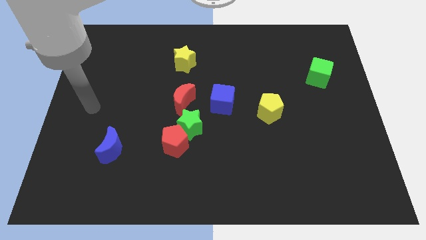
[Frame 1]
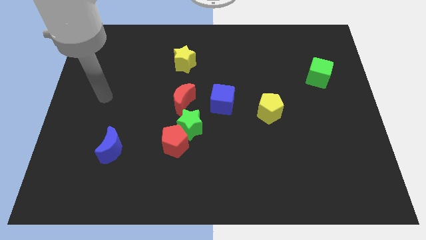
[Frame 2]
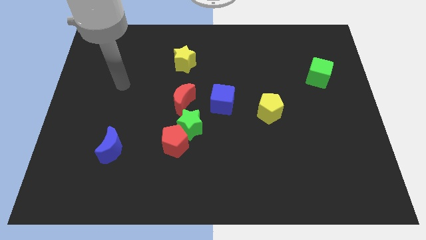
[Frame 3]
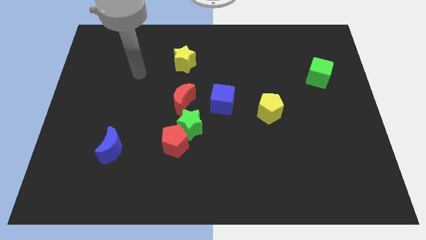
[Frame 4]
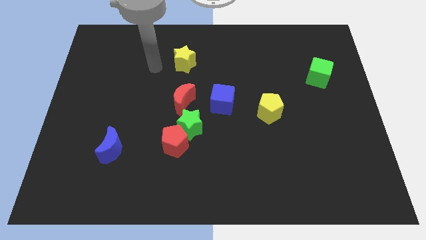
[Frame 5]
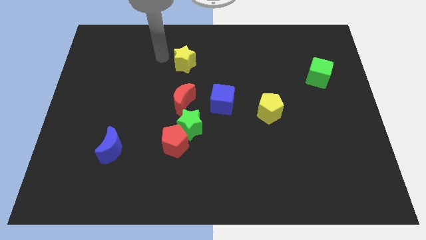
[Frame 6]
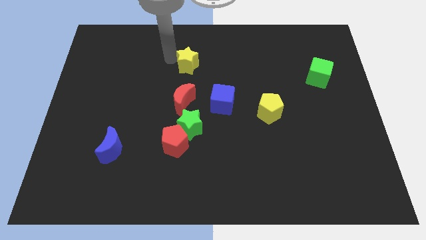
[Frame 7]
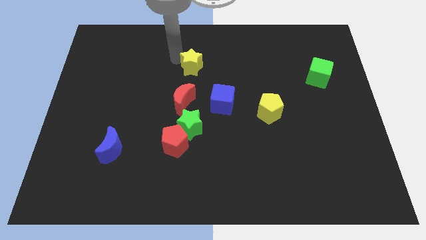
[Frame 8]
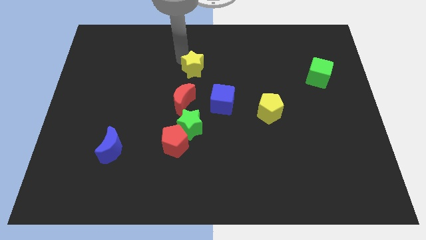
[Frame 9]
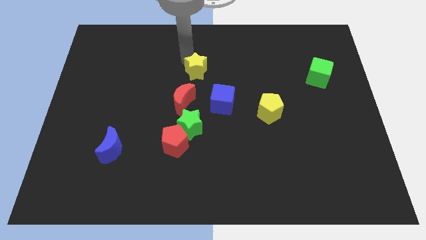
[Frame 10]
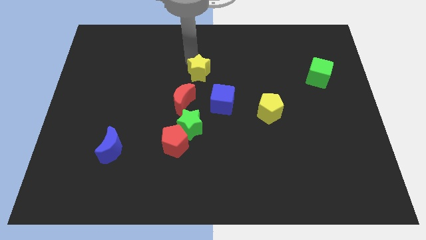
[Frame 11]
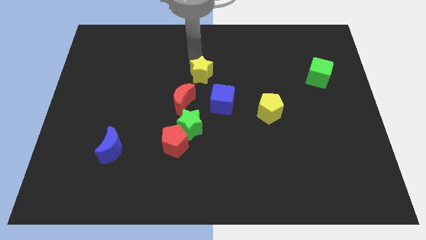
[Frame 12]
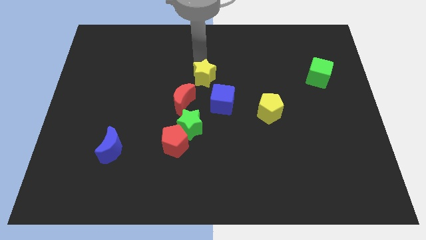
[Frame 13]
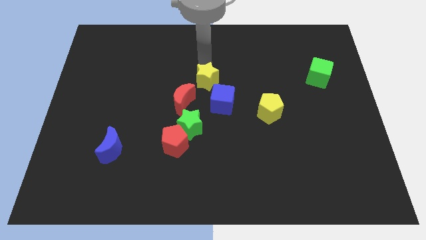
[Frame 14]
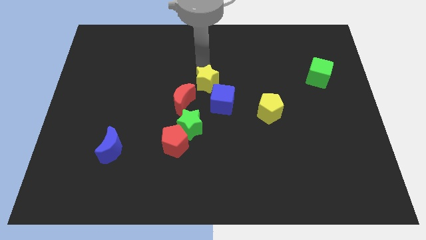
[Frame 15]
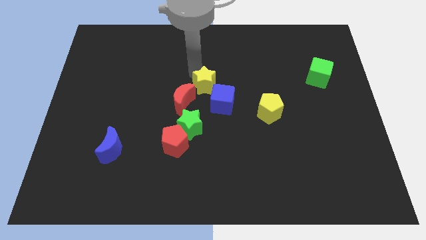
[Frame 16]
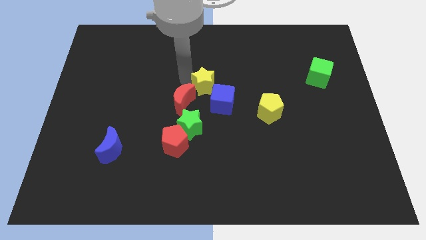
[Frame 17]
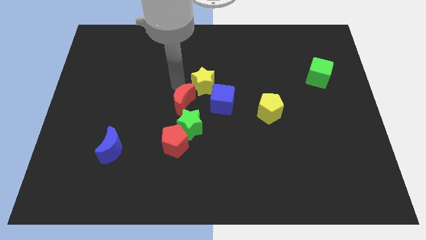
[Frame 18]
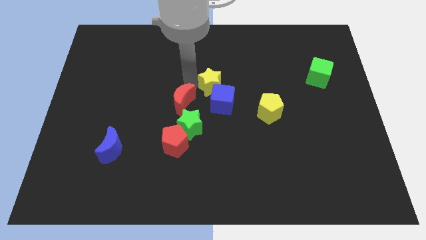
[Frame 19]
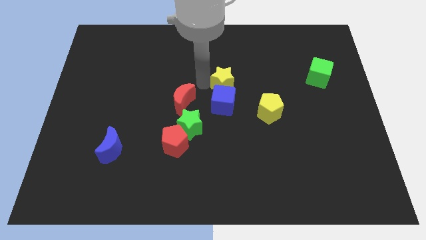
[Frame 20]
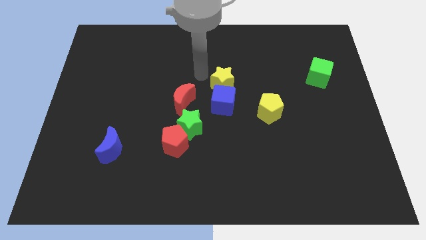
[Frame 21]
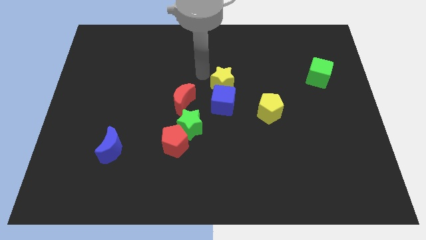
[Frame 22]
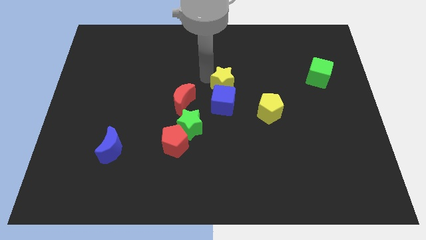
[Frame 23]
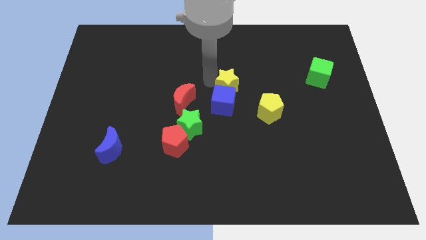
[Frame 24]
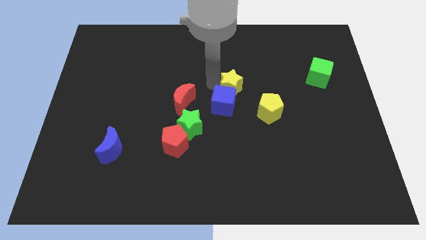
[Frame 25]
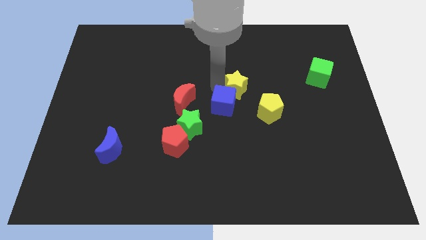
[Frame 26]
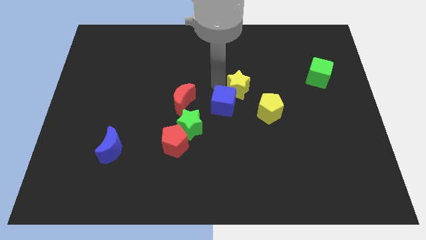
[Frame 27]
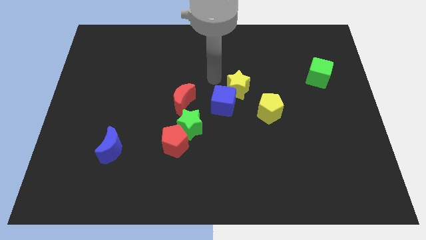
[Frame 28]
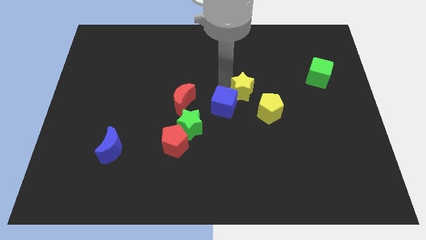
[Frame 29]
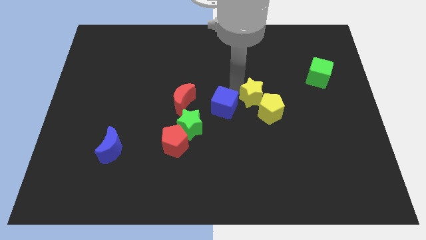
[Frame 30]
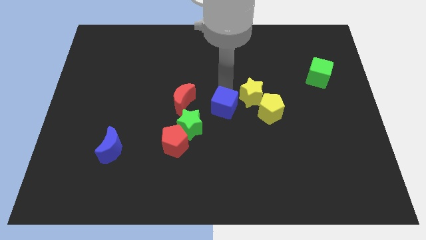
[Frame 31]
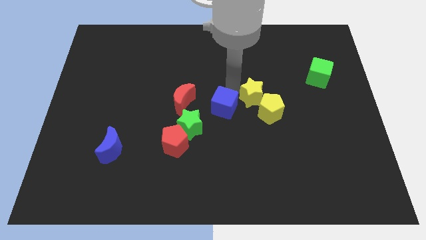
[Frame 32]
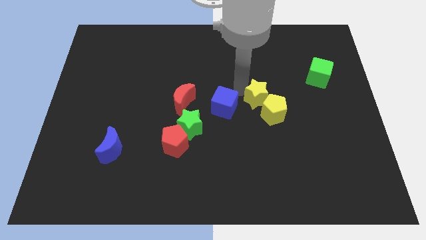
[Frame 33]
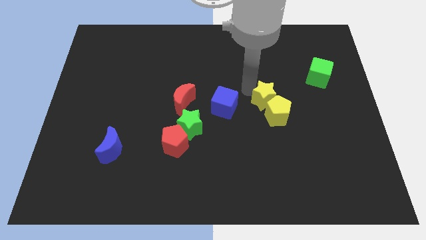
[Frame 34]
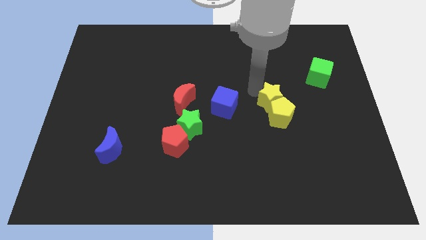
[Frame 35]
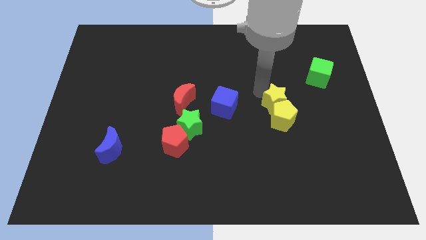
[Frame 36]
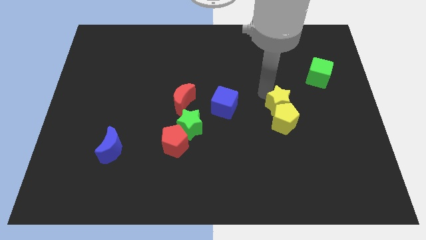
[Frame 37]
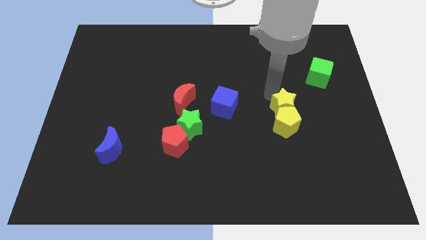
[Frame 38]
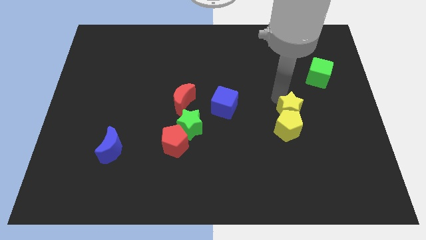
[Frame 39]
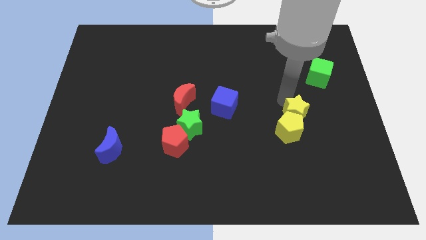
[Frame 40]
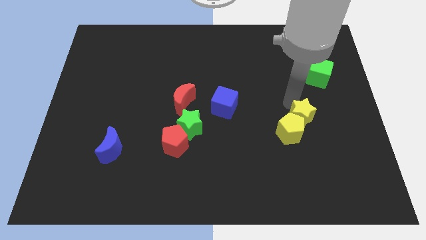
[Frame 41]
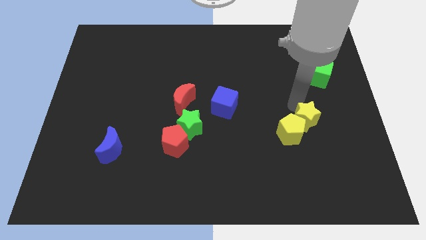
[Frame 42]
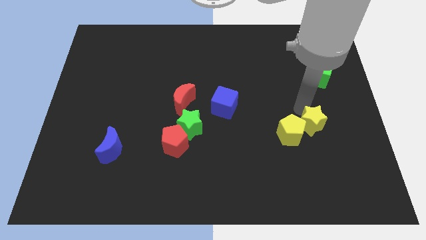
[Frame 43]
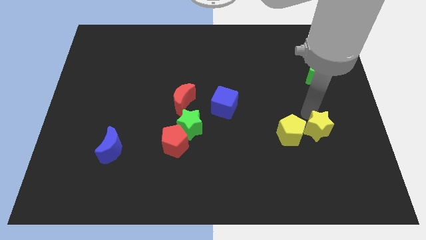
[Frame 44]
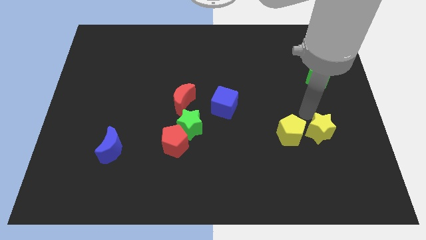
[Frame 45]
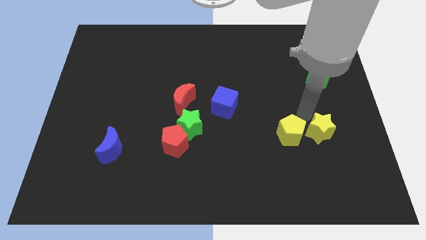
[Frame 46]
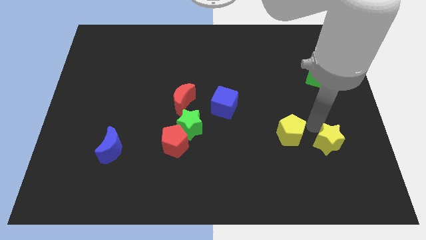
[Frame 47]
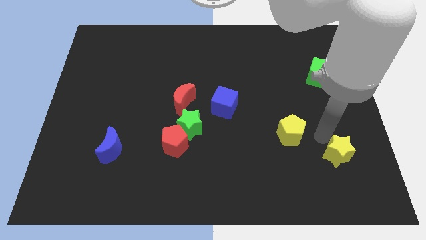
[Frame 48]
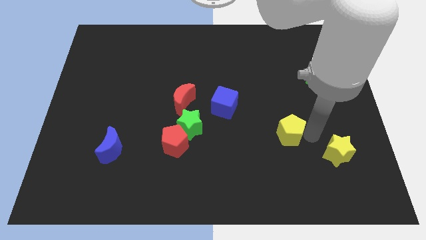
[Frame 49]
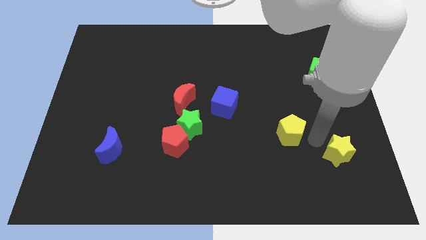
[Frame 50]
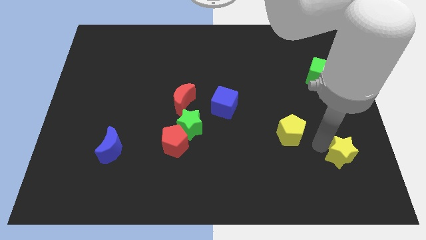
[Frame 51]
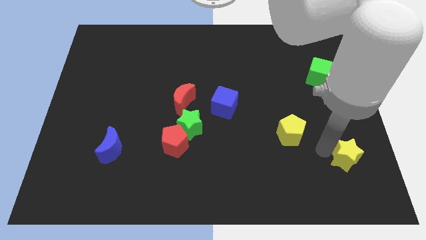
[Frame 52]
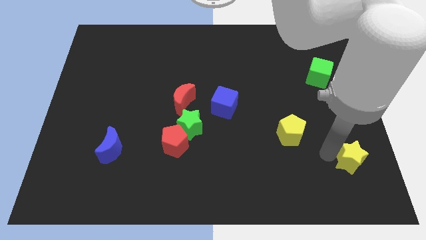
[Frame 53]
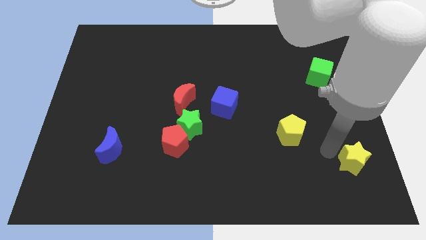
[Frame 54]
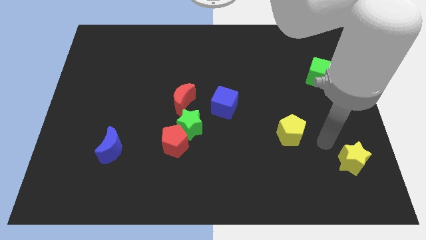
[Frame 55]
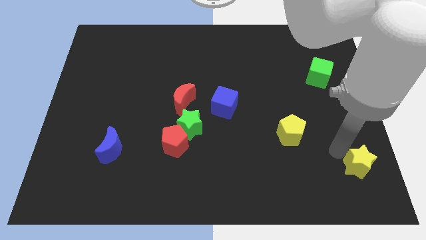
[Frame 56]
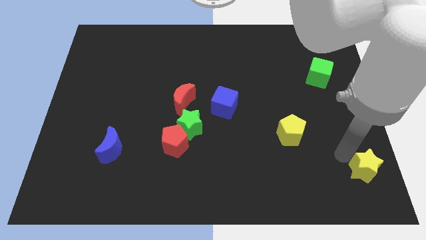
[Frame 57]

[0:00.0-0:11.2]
put the yellow star to the bottom right of the board

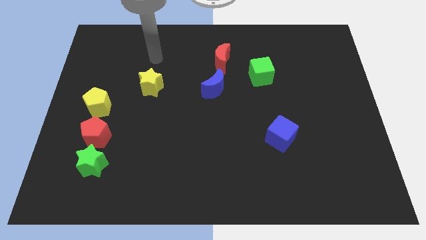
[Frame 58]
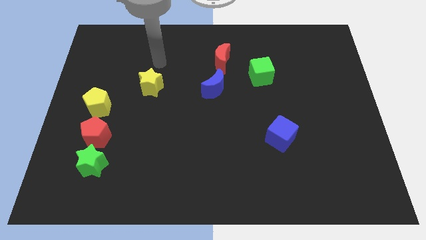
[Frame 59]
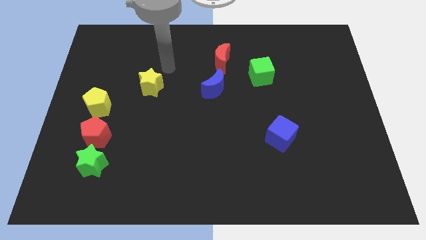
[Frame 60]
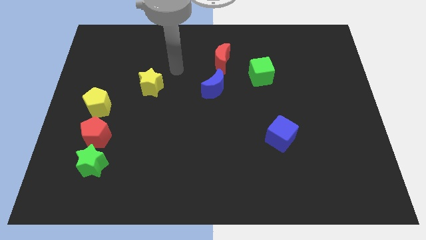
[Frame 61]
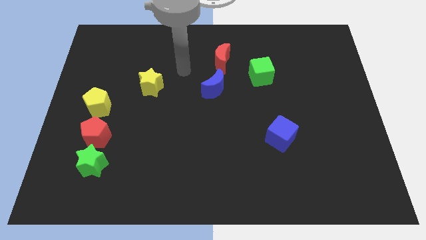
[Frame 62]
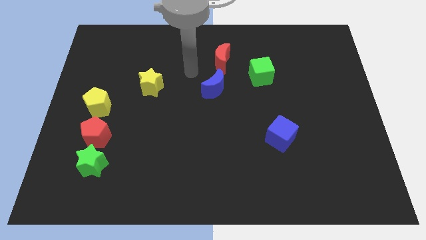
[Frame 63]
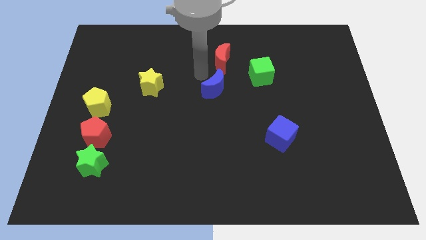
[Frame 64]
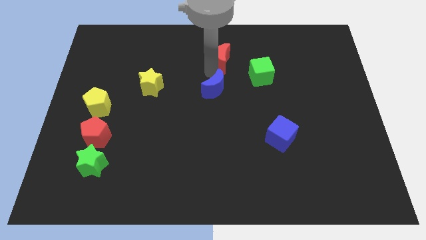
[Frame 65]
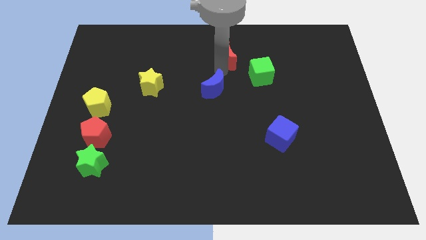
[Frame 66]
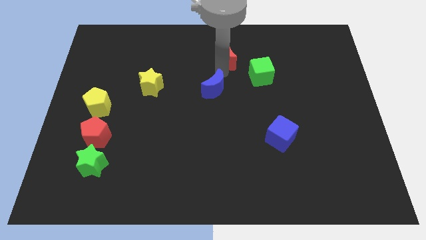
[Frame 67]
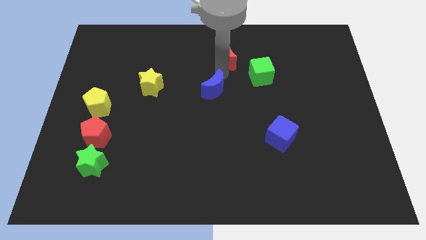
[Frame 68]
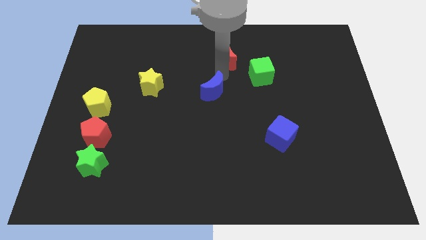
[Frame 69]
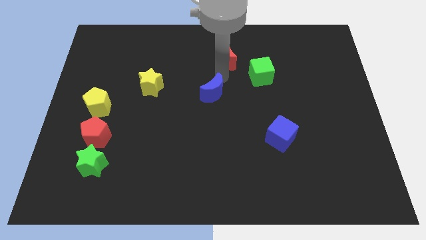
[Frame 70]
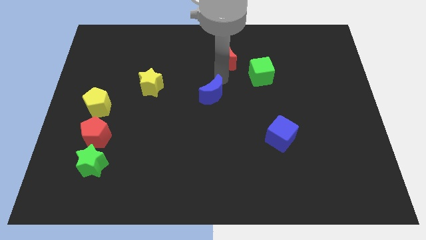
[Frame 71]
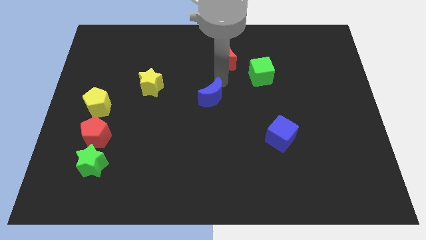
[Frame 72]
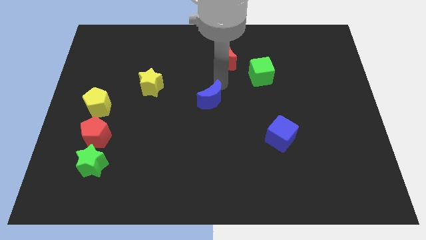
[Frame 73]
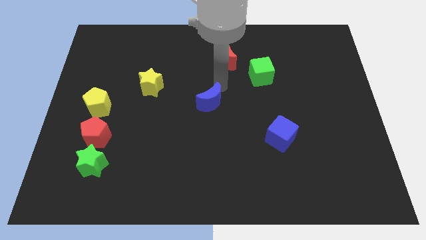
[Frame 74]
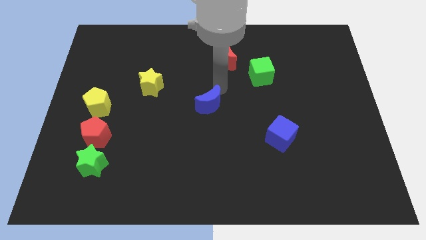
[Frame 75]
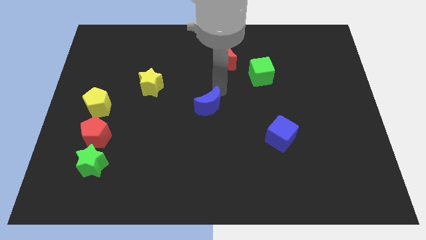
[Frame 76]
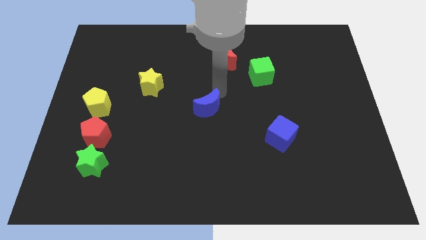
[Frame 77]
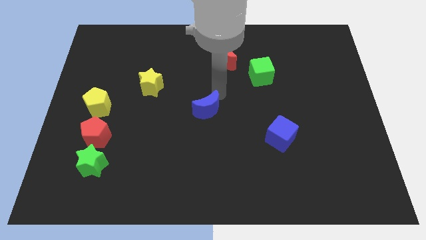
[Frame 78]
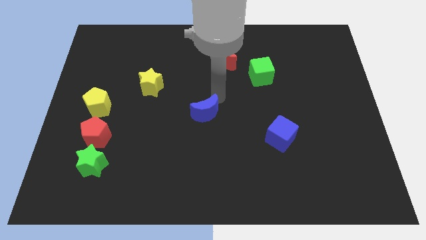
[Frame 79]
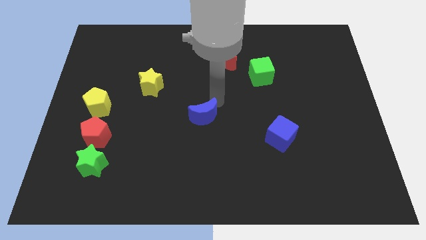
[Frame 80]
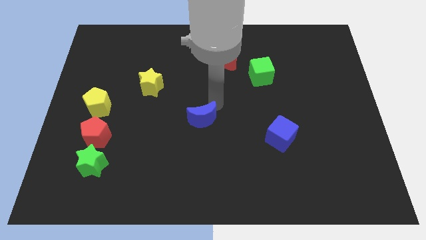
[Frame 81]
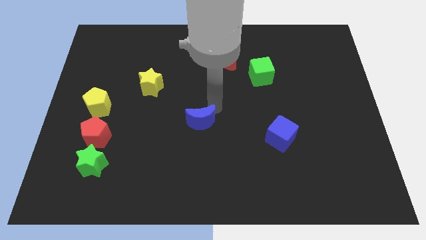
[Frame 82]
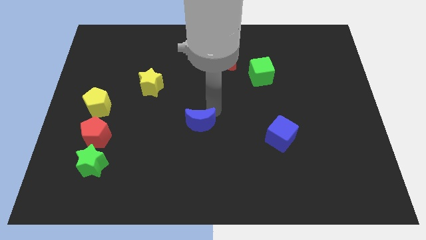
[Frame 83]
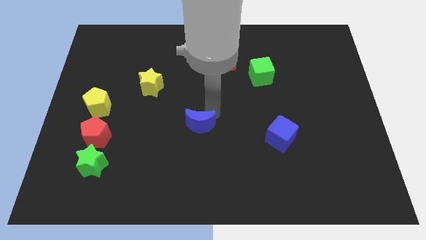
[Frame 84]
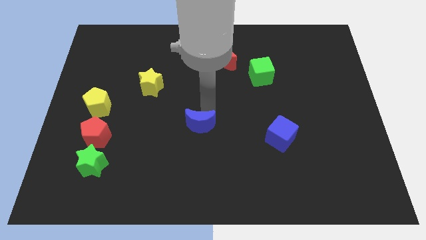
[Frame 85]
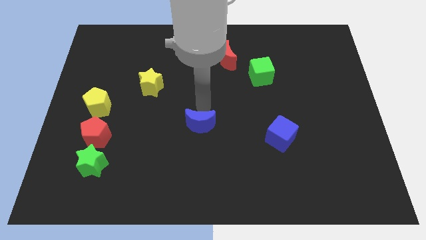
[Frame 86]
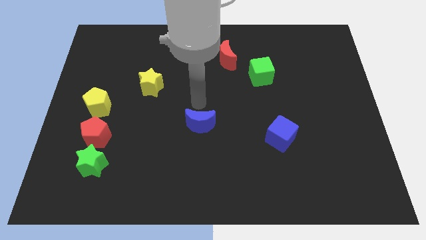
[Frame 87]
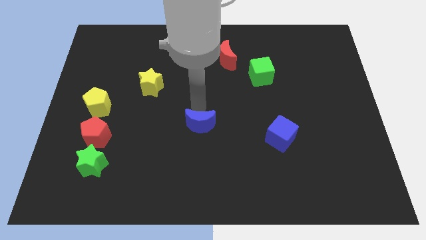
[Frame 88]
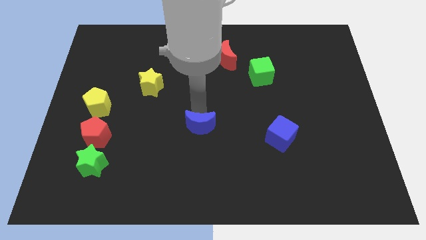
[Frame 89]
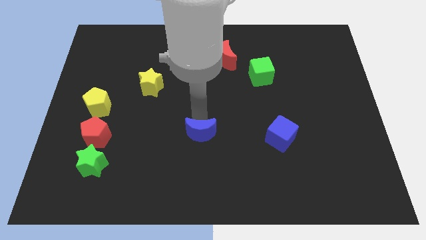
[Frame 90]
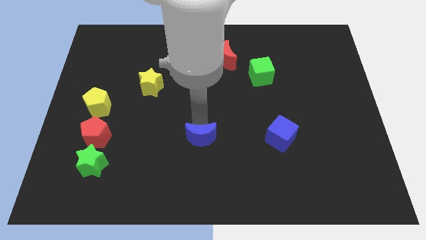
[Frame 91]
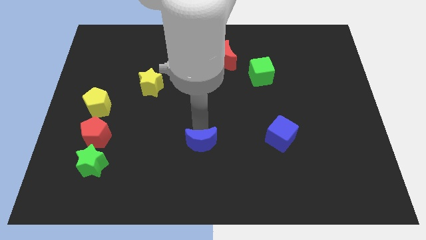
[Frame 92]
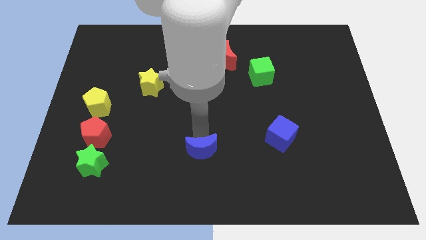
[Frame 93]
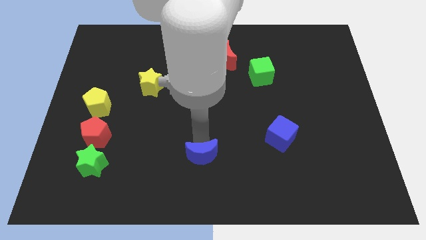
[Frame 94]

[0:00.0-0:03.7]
put the blue moon to the bottom side
